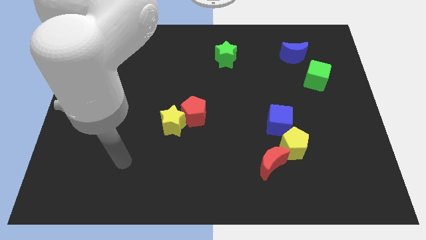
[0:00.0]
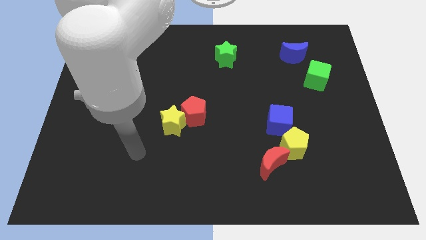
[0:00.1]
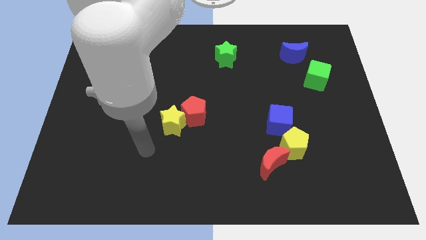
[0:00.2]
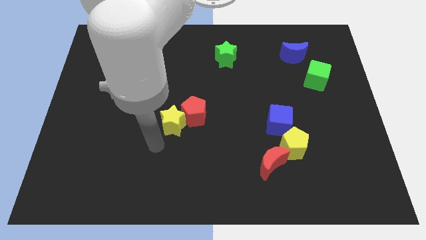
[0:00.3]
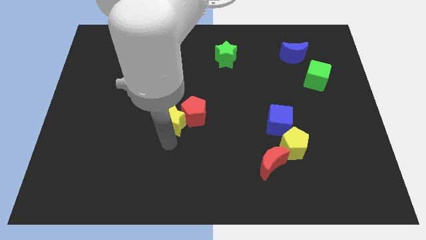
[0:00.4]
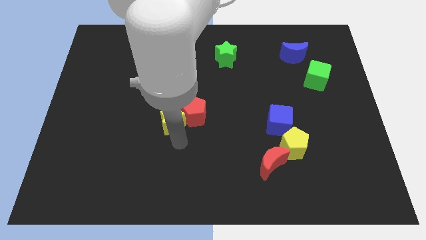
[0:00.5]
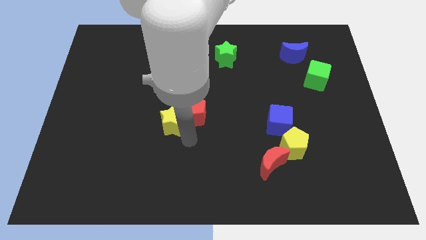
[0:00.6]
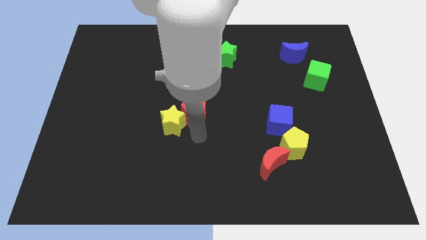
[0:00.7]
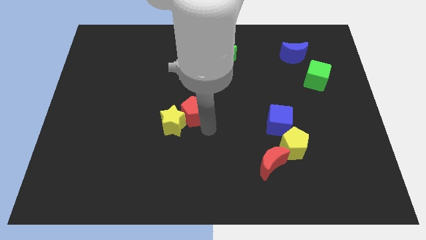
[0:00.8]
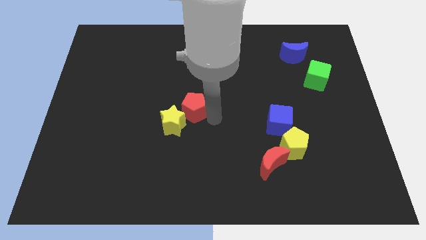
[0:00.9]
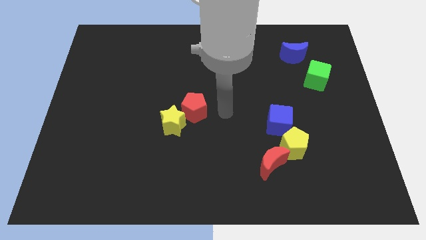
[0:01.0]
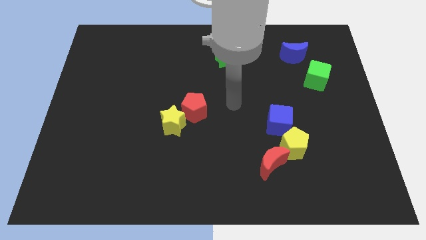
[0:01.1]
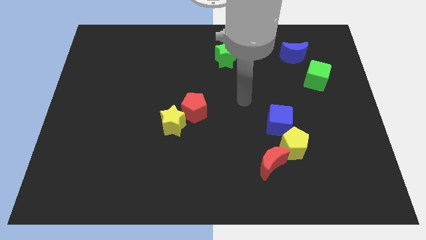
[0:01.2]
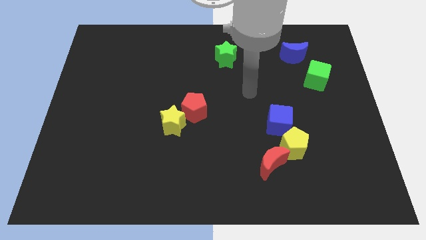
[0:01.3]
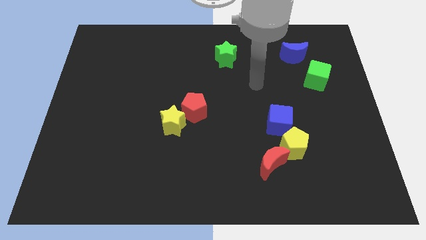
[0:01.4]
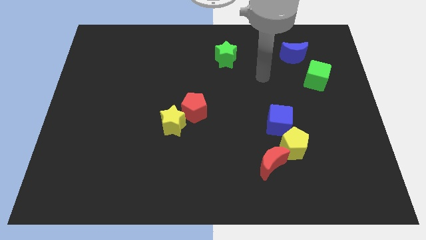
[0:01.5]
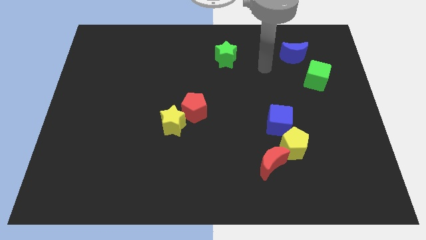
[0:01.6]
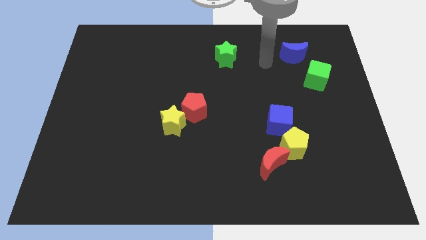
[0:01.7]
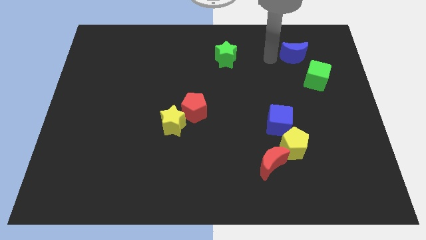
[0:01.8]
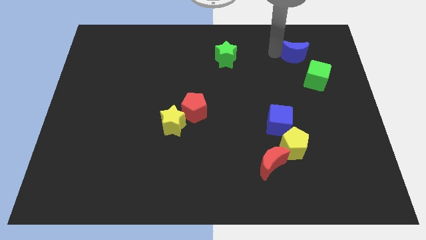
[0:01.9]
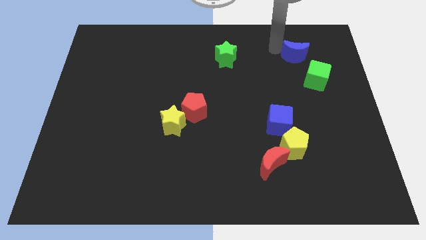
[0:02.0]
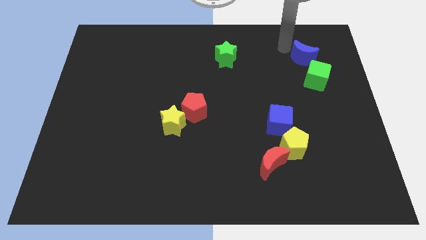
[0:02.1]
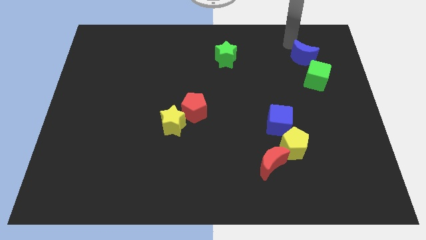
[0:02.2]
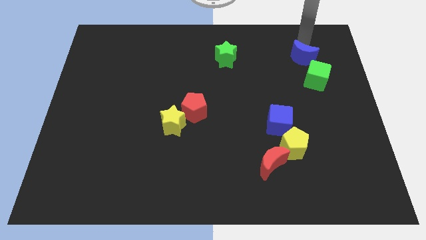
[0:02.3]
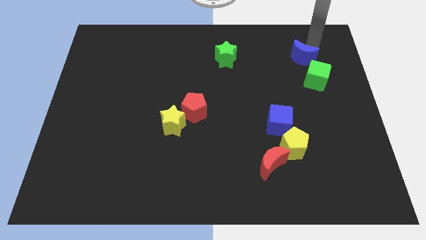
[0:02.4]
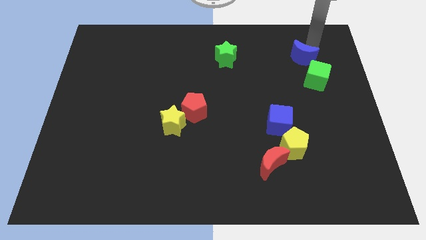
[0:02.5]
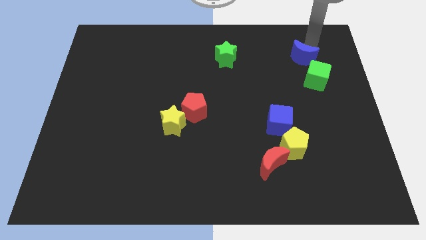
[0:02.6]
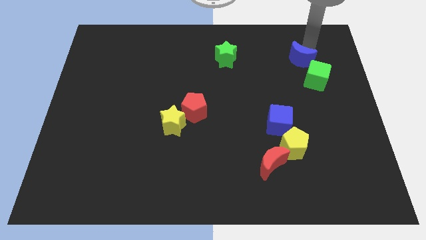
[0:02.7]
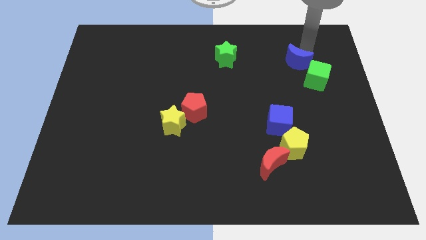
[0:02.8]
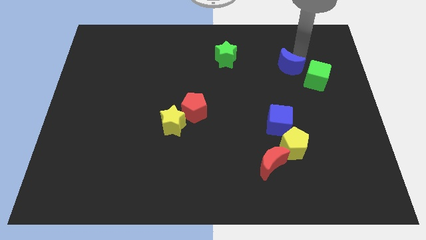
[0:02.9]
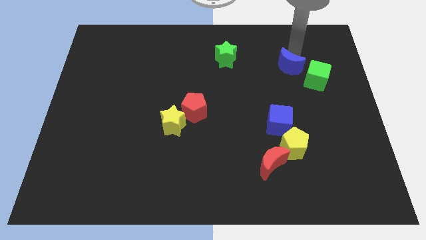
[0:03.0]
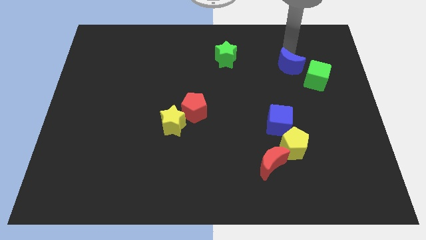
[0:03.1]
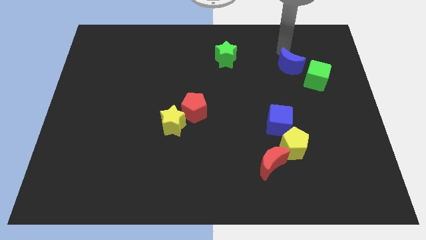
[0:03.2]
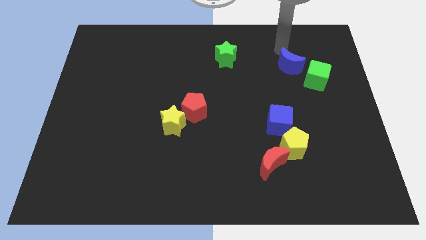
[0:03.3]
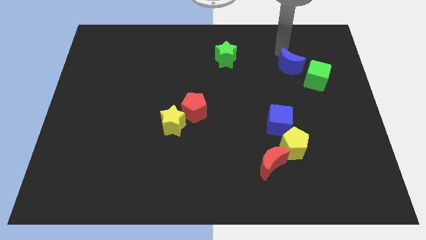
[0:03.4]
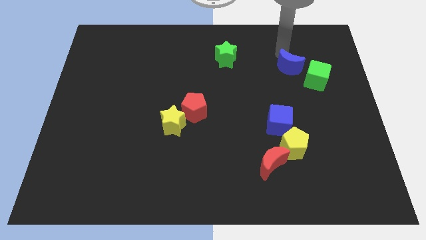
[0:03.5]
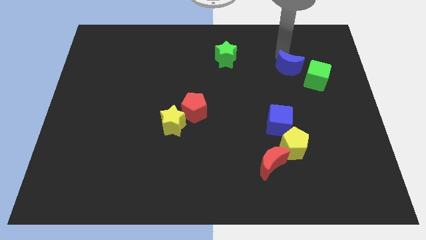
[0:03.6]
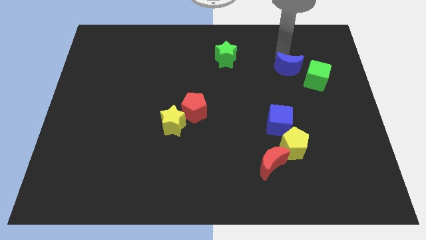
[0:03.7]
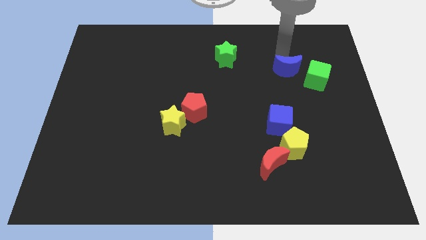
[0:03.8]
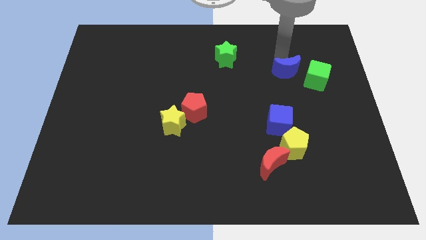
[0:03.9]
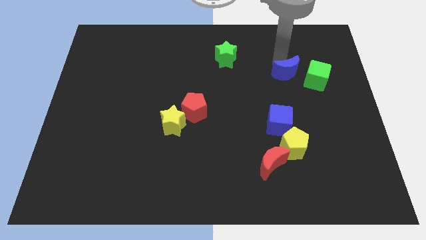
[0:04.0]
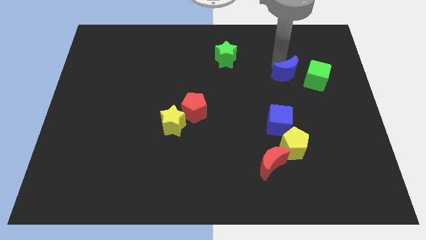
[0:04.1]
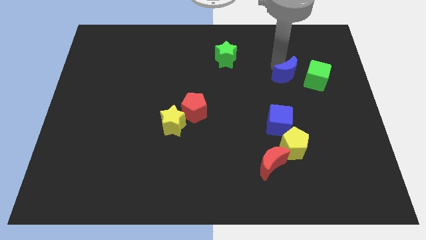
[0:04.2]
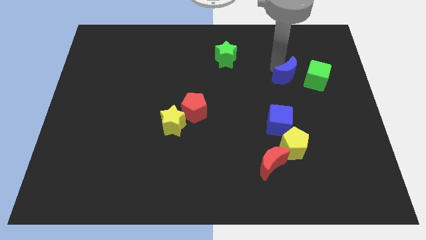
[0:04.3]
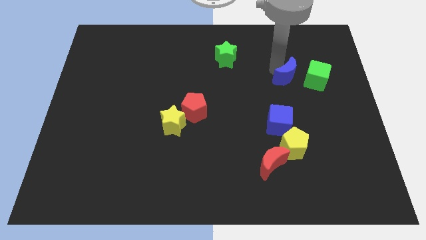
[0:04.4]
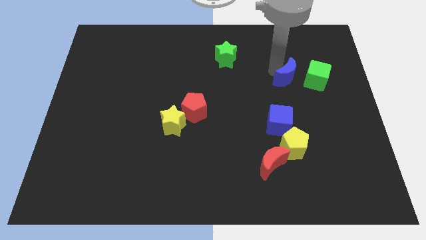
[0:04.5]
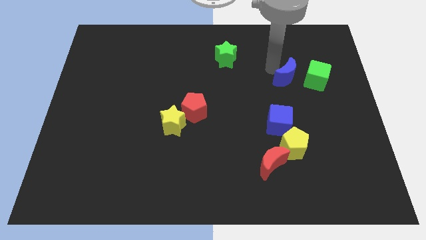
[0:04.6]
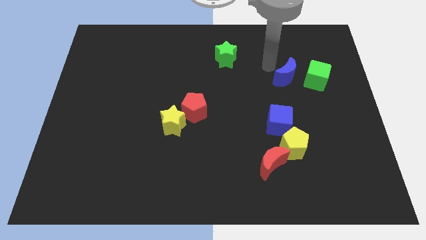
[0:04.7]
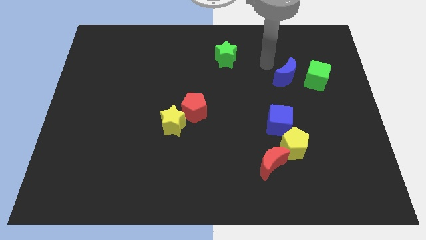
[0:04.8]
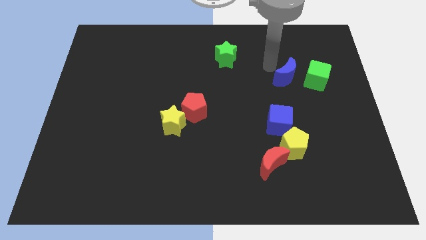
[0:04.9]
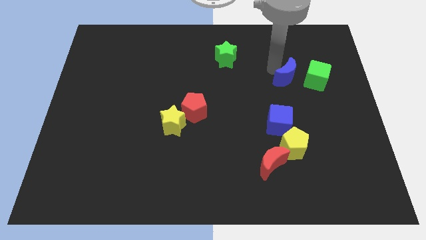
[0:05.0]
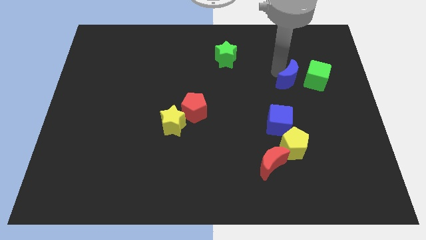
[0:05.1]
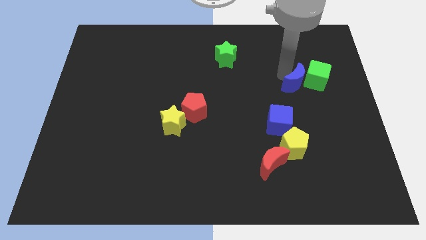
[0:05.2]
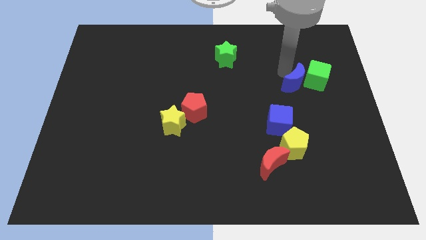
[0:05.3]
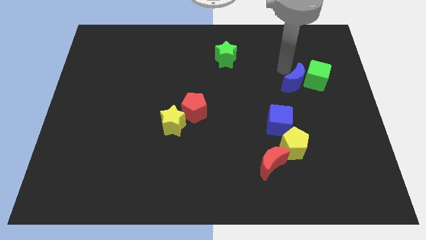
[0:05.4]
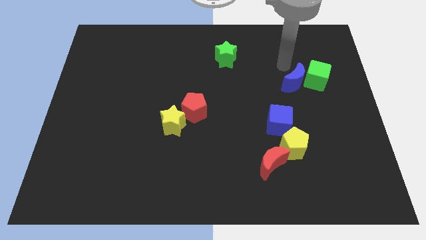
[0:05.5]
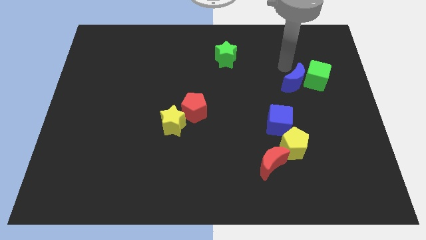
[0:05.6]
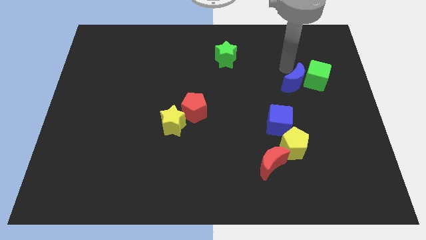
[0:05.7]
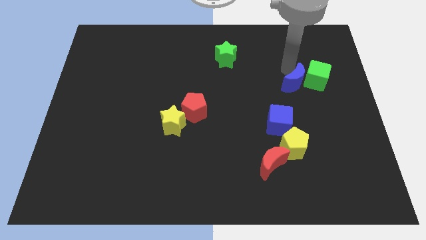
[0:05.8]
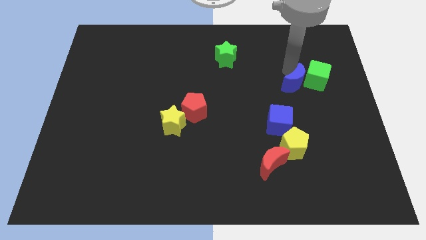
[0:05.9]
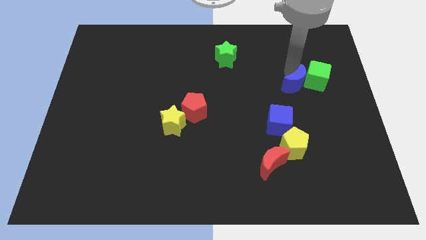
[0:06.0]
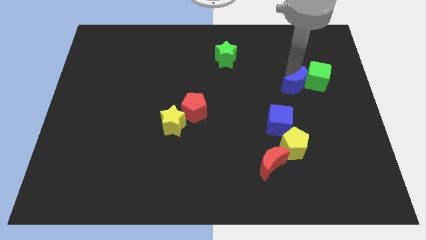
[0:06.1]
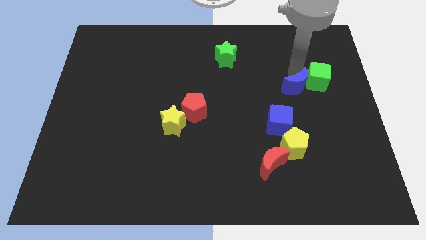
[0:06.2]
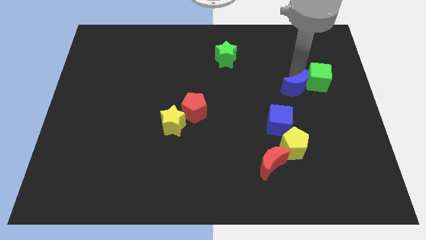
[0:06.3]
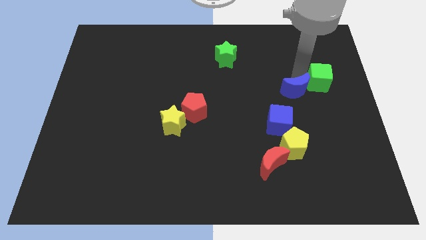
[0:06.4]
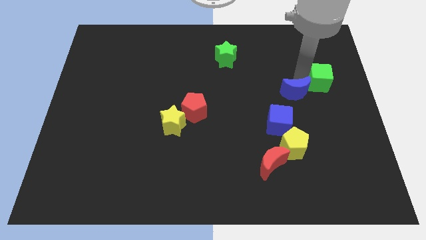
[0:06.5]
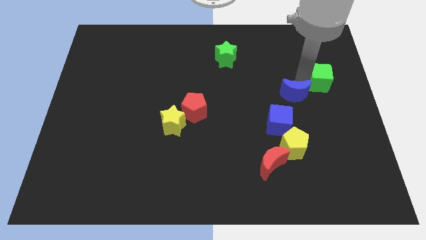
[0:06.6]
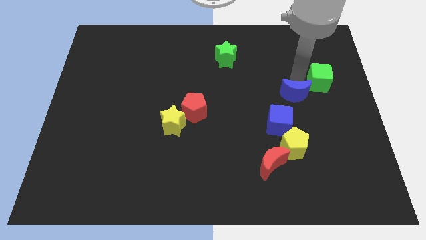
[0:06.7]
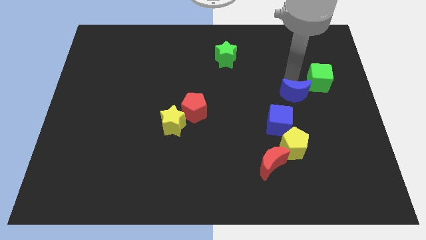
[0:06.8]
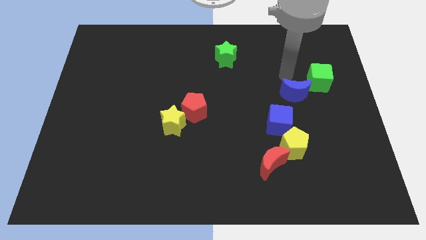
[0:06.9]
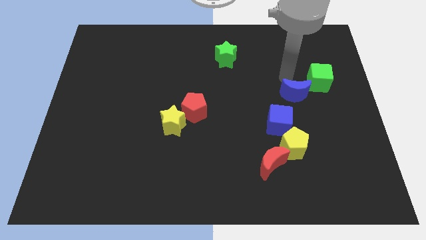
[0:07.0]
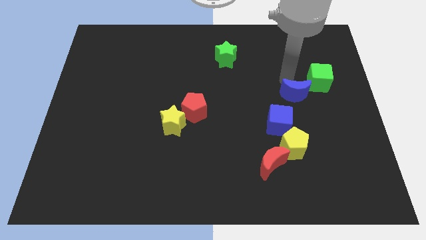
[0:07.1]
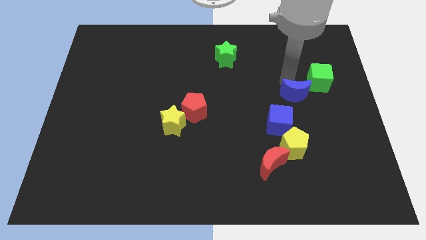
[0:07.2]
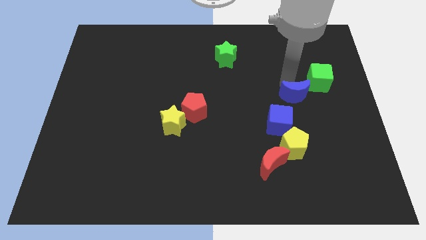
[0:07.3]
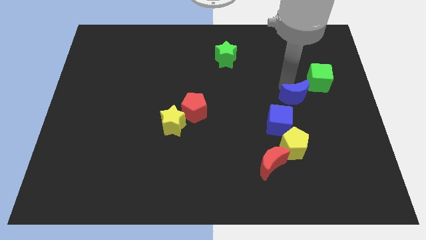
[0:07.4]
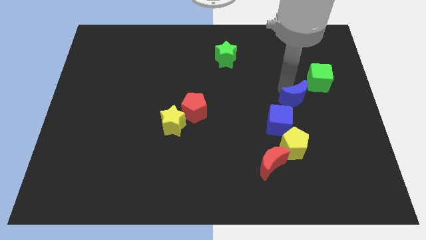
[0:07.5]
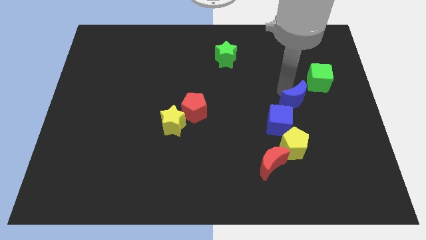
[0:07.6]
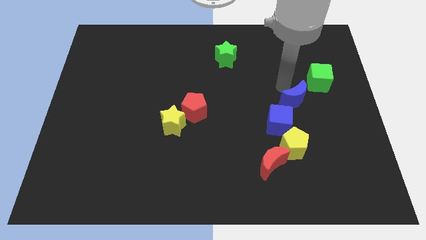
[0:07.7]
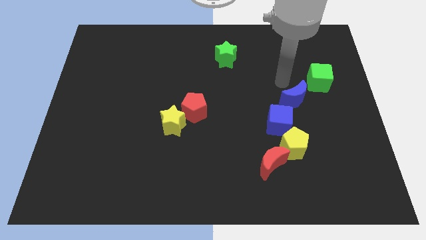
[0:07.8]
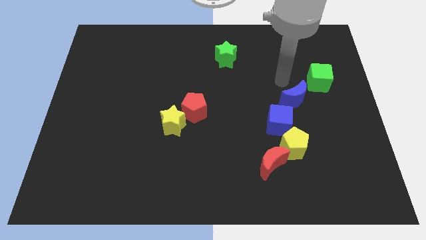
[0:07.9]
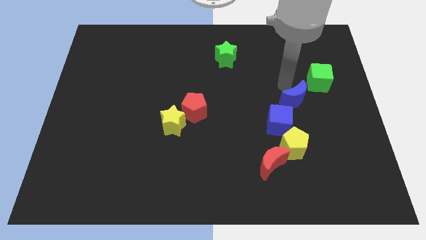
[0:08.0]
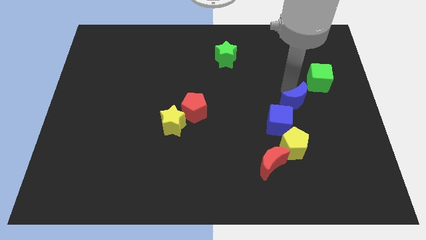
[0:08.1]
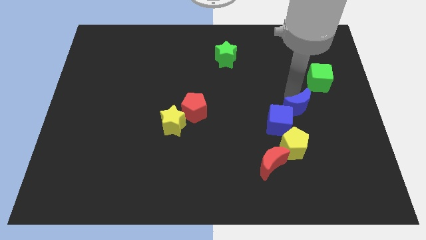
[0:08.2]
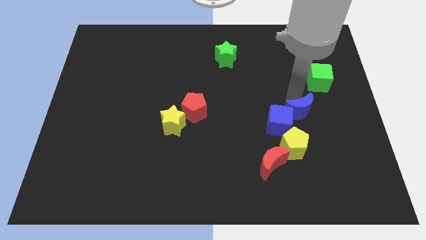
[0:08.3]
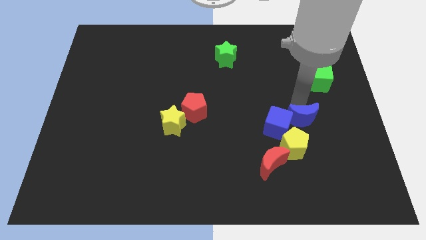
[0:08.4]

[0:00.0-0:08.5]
move the blue moon down
